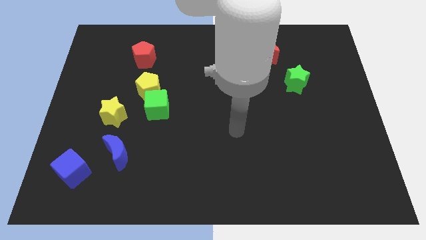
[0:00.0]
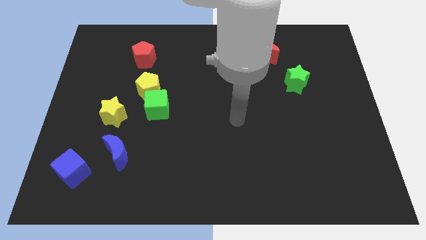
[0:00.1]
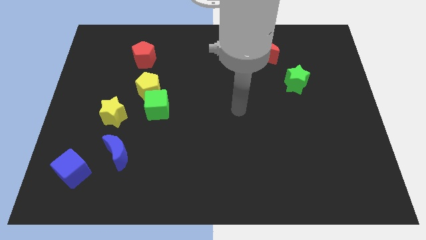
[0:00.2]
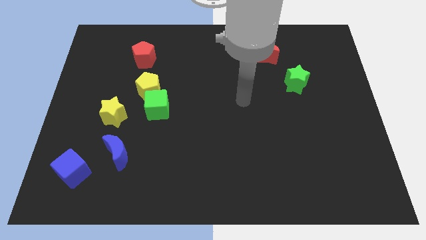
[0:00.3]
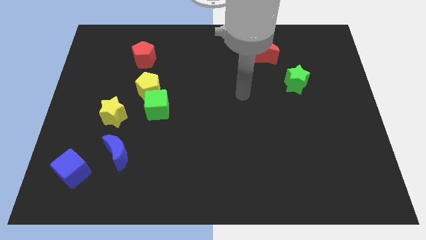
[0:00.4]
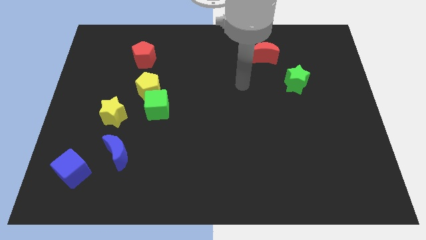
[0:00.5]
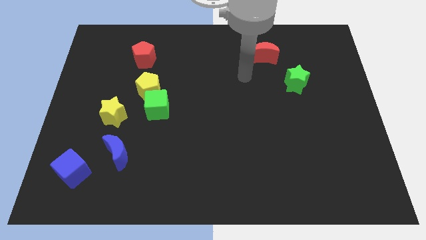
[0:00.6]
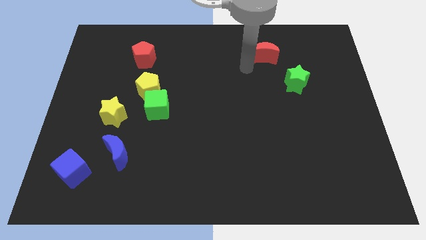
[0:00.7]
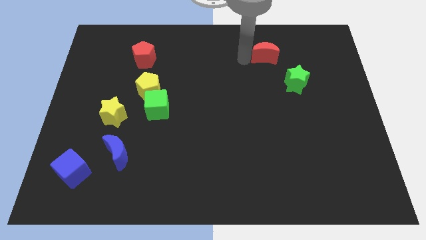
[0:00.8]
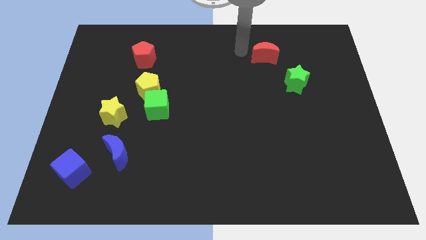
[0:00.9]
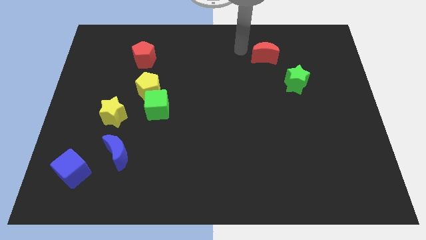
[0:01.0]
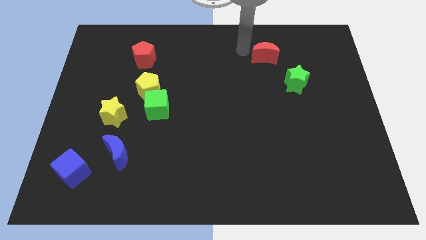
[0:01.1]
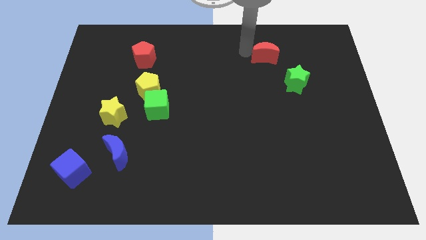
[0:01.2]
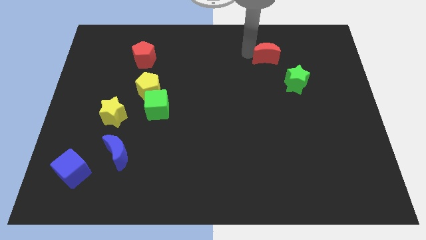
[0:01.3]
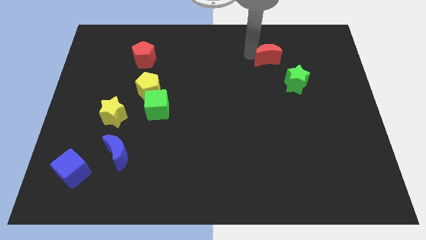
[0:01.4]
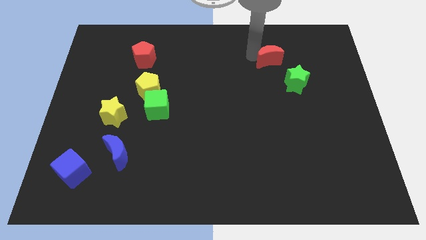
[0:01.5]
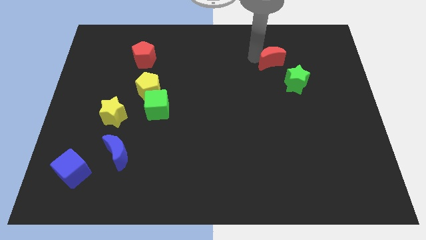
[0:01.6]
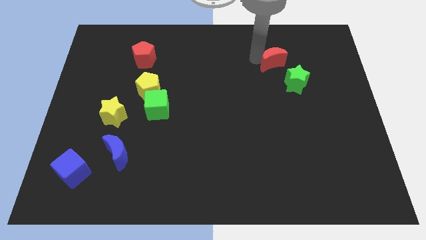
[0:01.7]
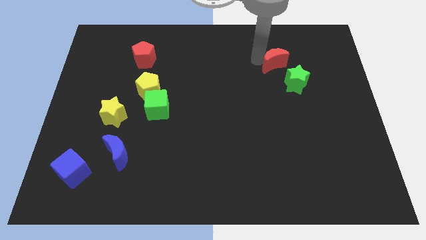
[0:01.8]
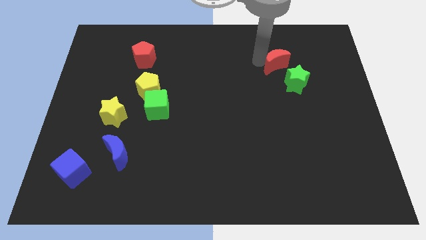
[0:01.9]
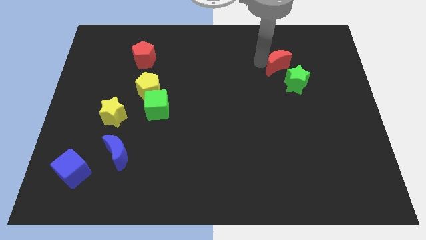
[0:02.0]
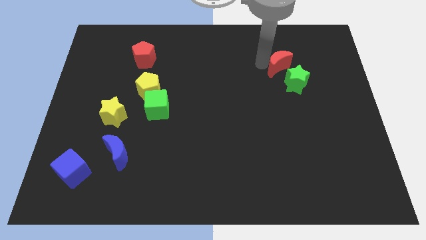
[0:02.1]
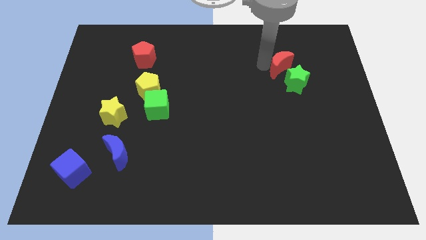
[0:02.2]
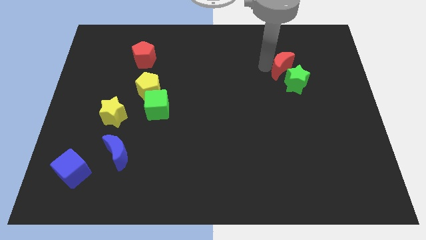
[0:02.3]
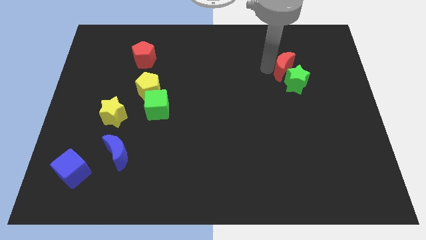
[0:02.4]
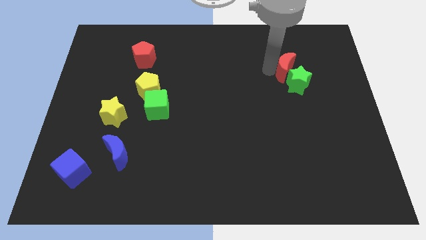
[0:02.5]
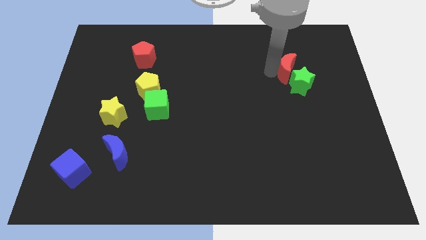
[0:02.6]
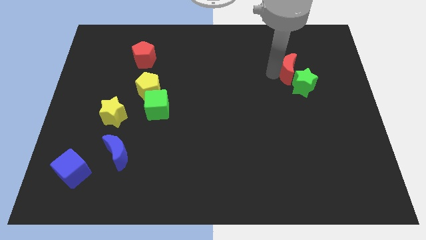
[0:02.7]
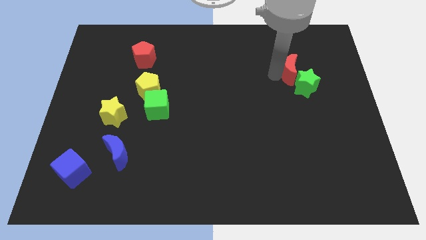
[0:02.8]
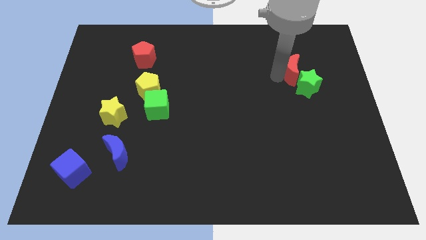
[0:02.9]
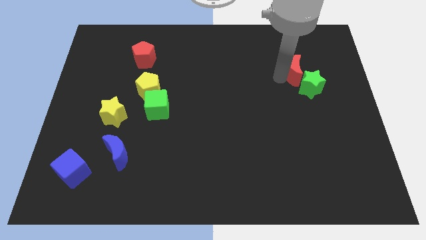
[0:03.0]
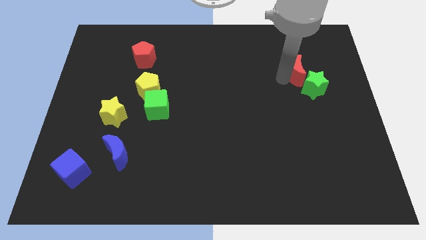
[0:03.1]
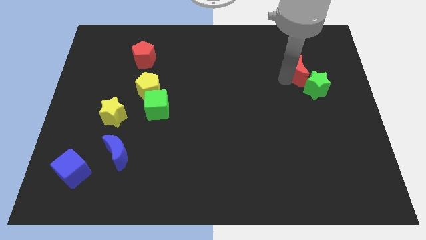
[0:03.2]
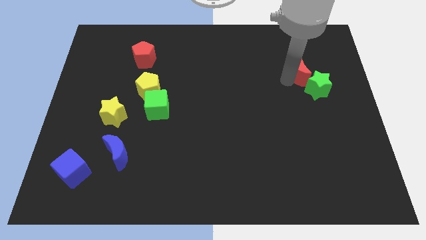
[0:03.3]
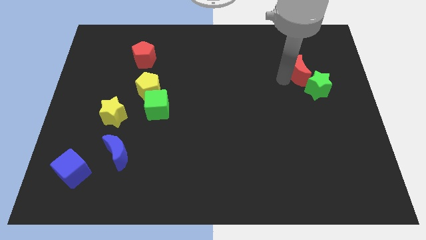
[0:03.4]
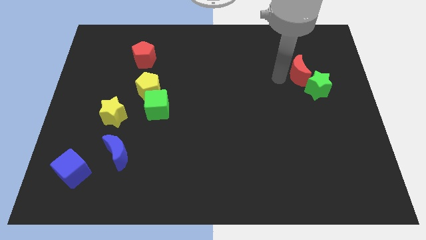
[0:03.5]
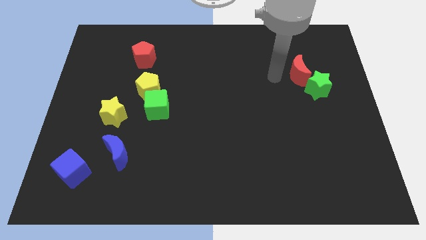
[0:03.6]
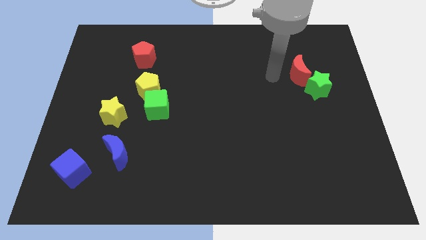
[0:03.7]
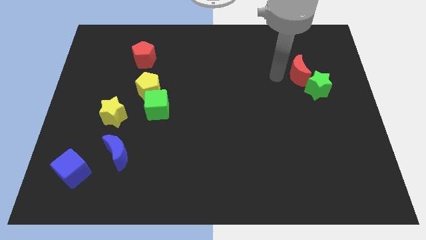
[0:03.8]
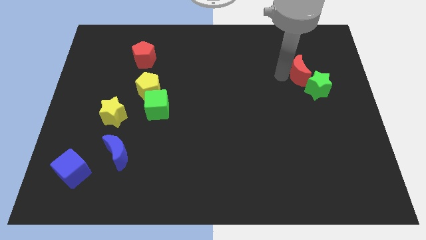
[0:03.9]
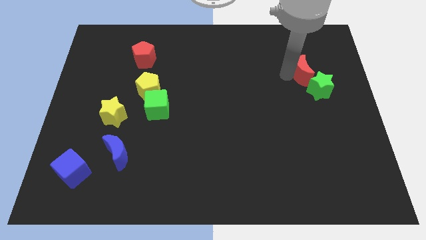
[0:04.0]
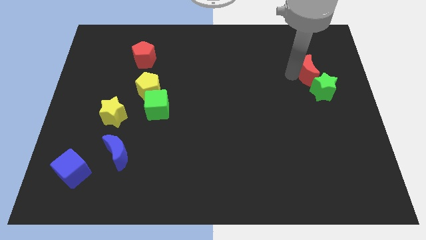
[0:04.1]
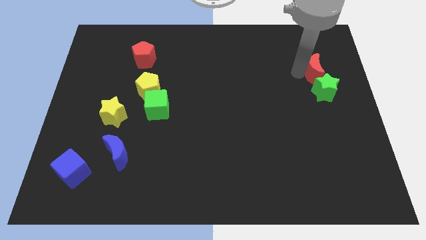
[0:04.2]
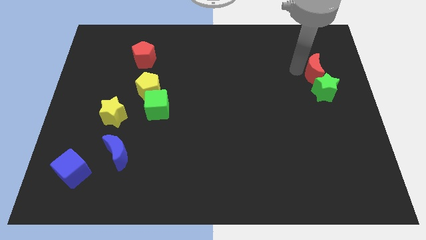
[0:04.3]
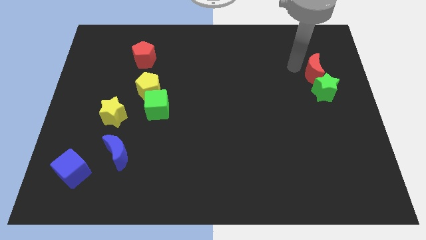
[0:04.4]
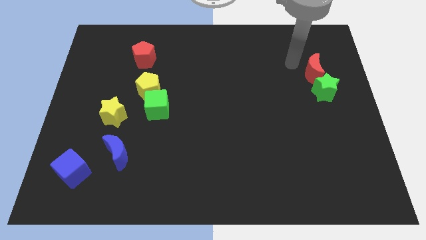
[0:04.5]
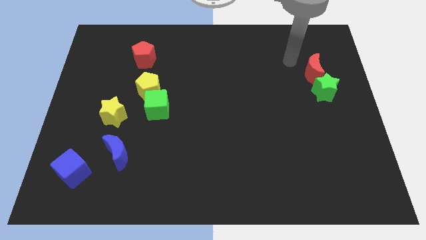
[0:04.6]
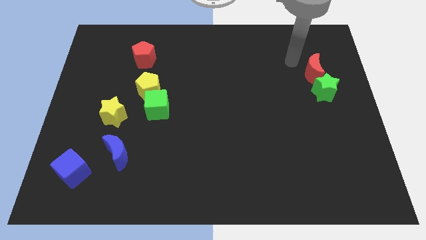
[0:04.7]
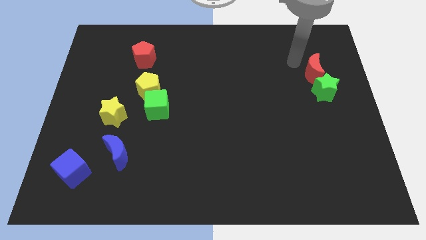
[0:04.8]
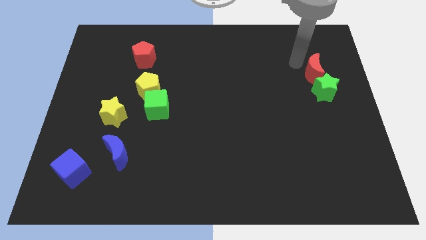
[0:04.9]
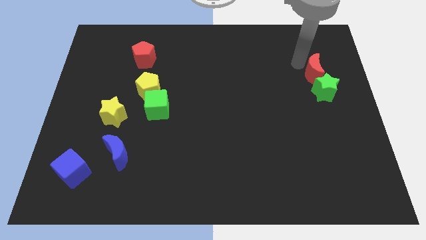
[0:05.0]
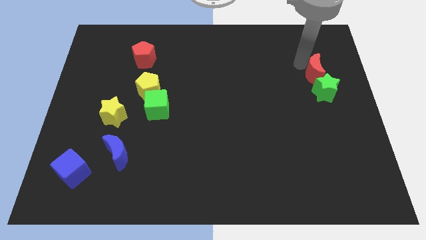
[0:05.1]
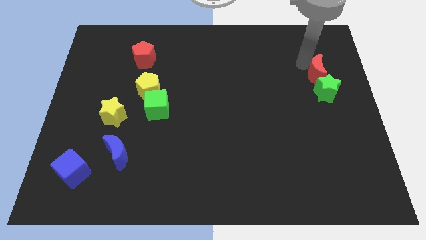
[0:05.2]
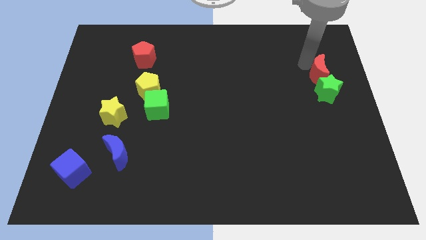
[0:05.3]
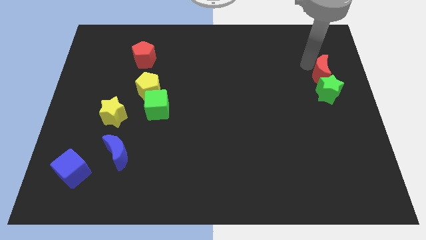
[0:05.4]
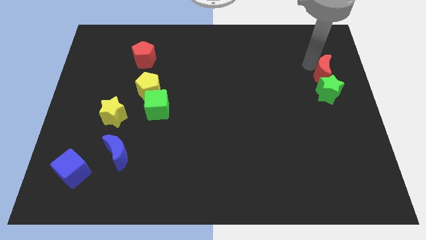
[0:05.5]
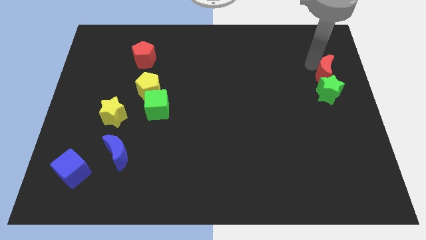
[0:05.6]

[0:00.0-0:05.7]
move the red moon to the right side

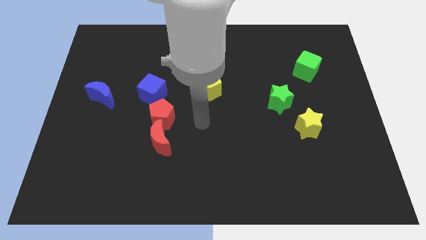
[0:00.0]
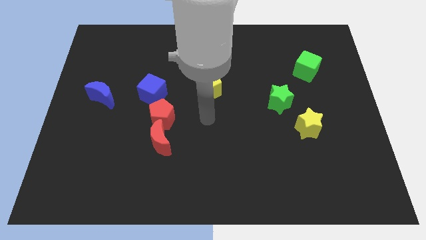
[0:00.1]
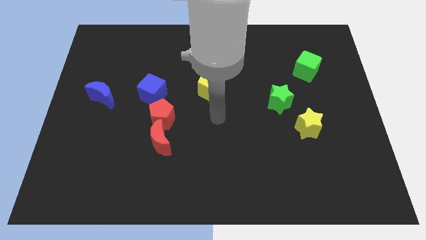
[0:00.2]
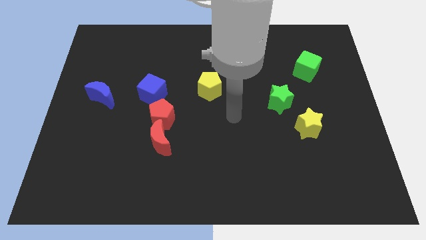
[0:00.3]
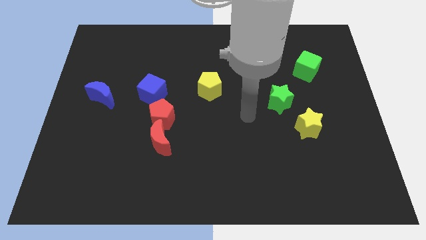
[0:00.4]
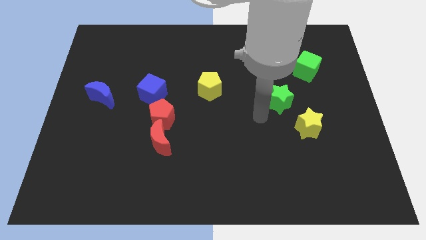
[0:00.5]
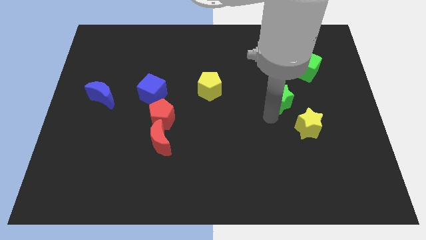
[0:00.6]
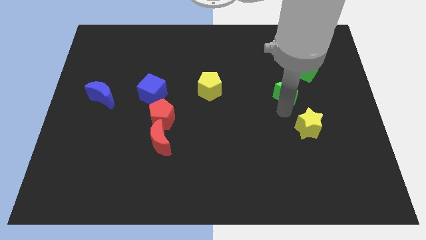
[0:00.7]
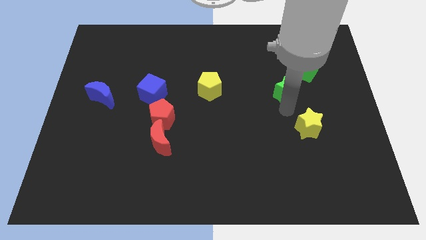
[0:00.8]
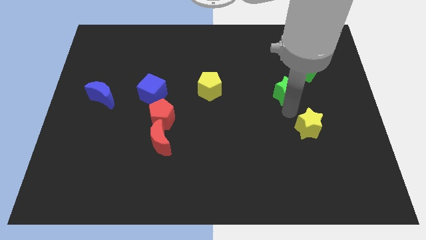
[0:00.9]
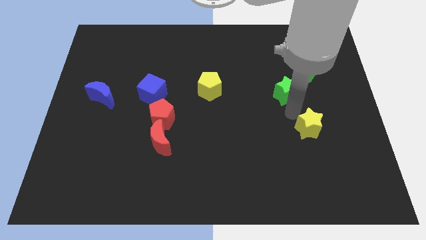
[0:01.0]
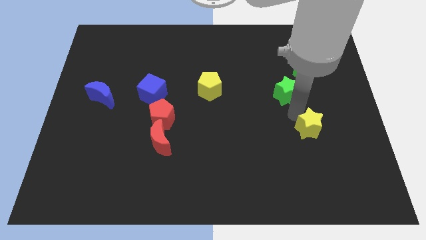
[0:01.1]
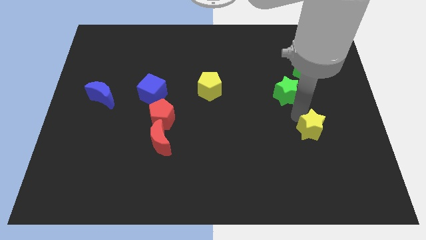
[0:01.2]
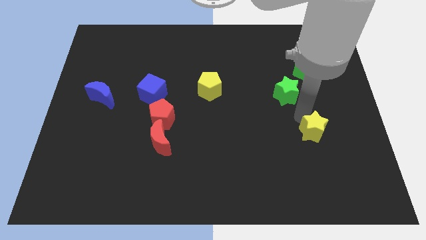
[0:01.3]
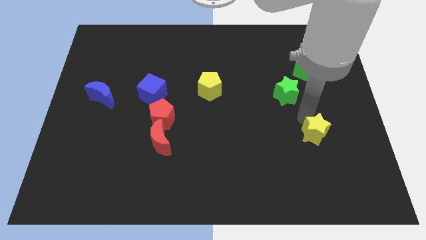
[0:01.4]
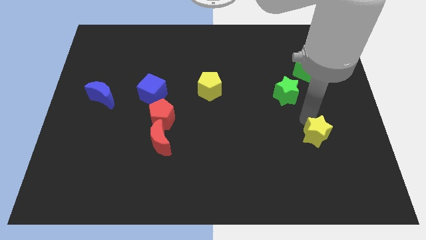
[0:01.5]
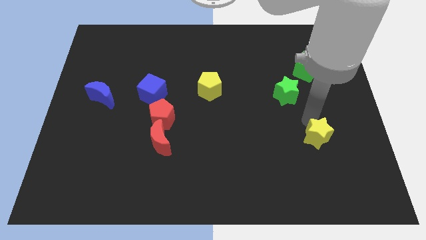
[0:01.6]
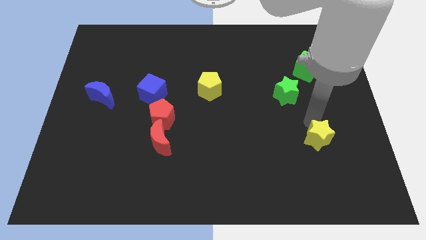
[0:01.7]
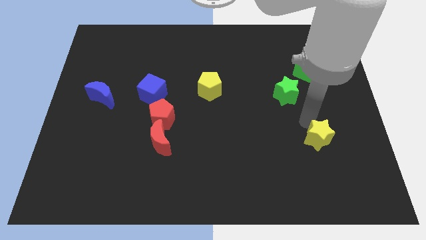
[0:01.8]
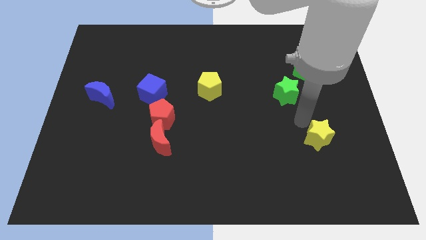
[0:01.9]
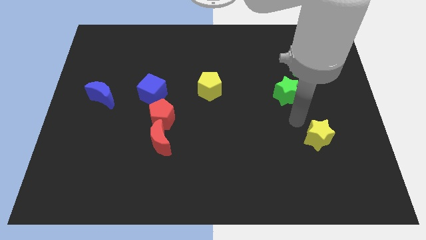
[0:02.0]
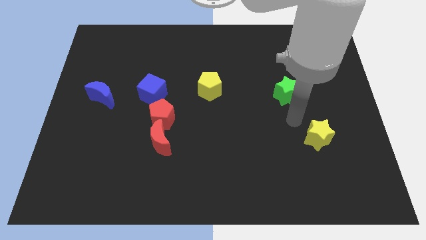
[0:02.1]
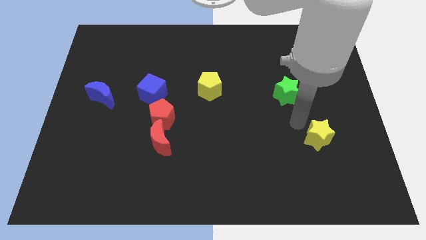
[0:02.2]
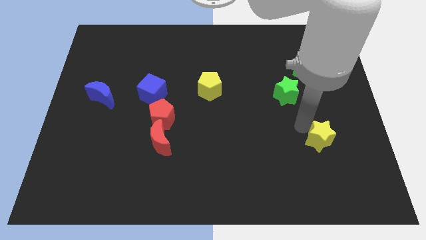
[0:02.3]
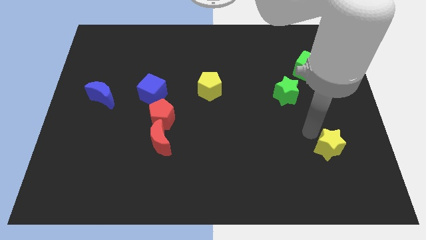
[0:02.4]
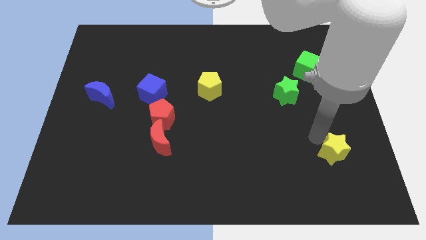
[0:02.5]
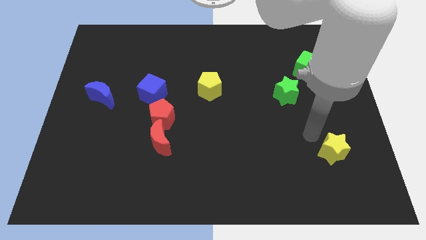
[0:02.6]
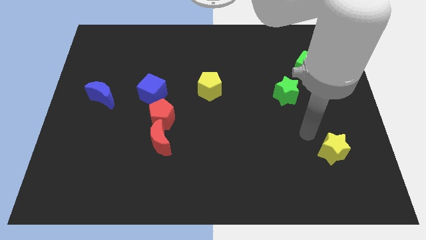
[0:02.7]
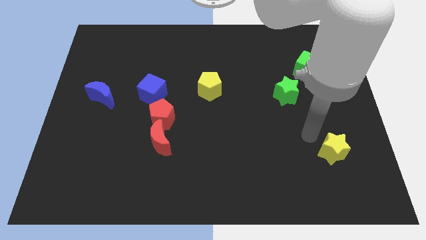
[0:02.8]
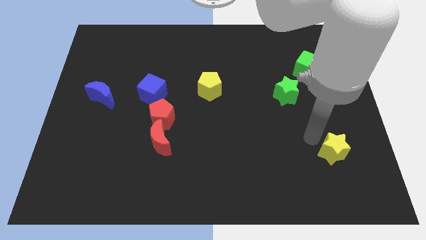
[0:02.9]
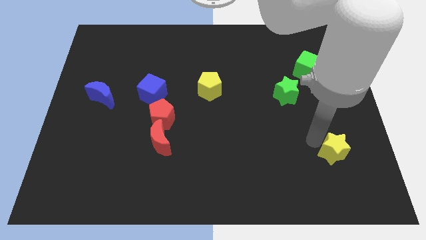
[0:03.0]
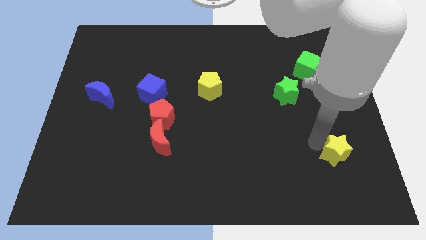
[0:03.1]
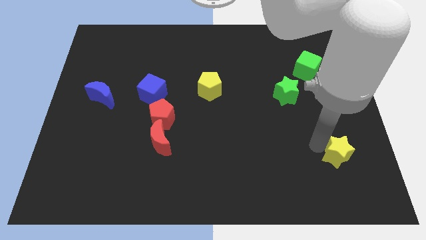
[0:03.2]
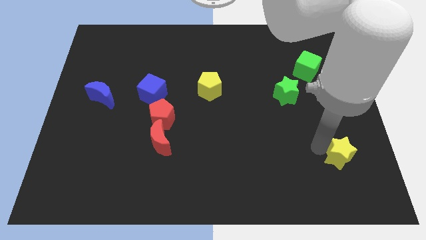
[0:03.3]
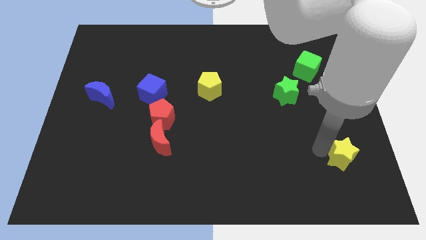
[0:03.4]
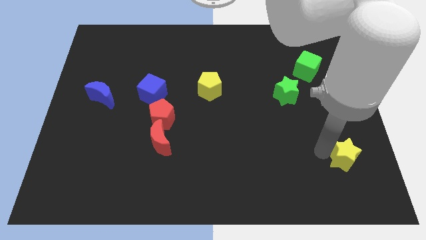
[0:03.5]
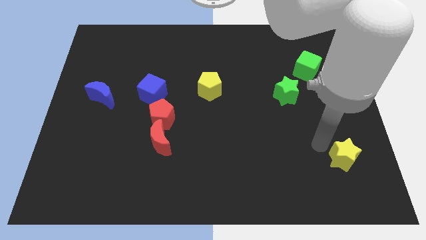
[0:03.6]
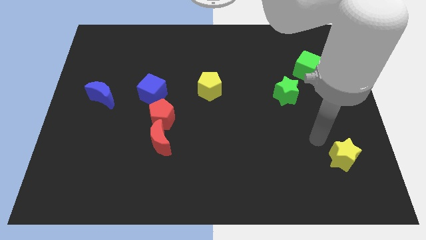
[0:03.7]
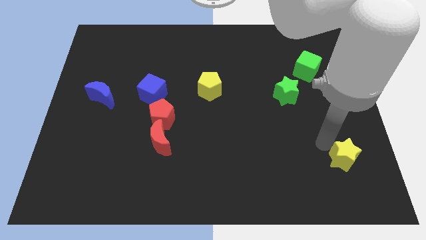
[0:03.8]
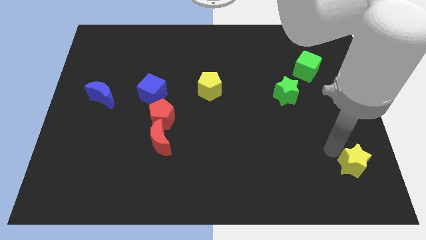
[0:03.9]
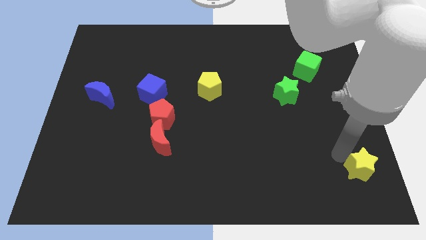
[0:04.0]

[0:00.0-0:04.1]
put the yellow star to the bottom right corner
